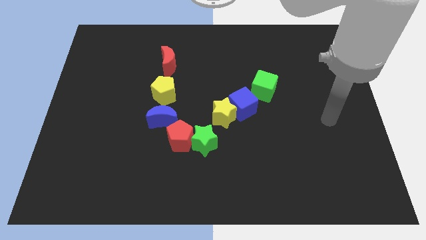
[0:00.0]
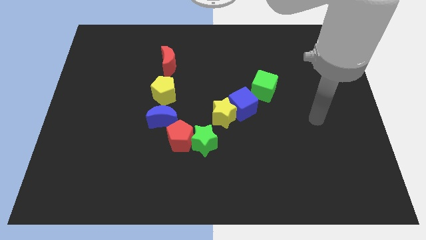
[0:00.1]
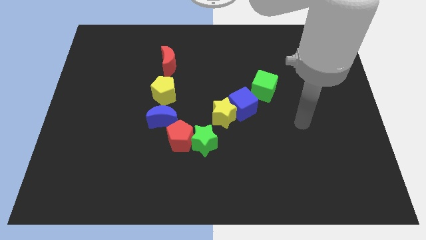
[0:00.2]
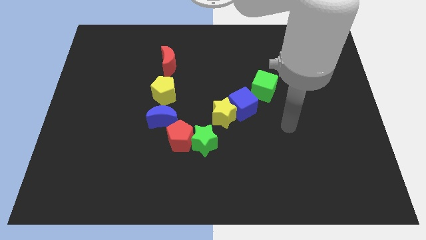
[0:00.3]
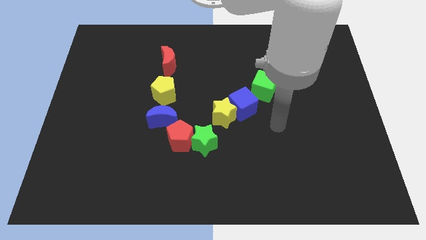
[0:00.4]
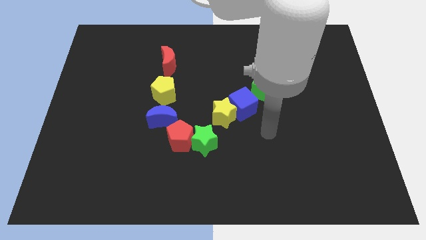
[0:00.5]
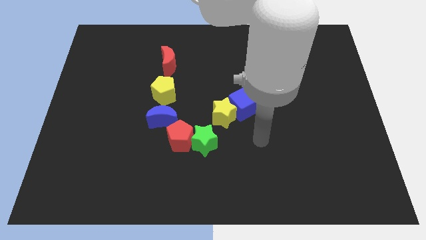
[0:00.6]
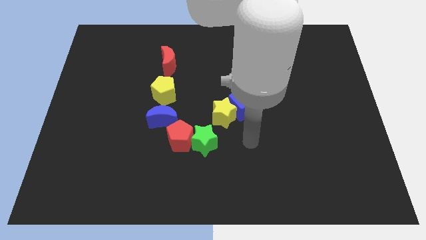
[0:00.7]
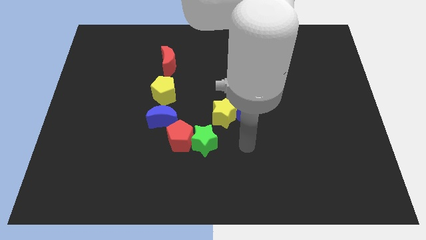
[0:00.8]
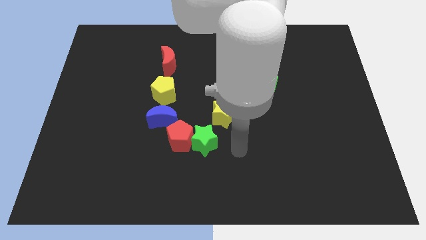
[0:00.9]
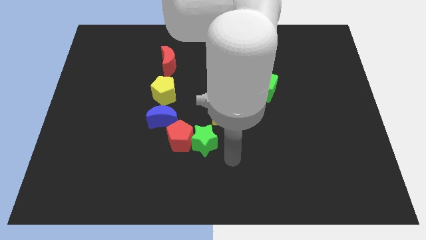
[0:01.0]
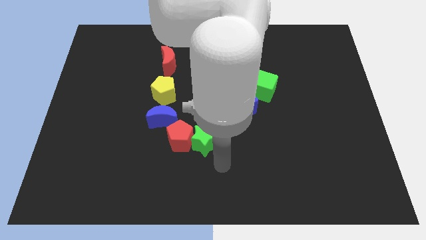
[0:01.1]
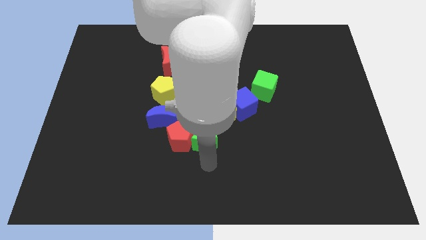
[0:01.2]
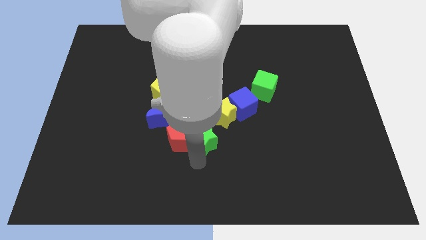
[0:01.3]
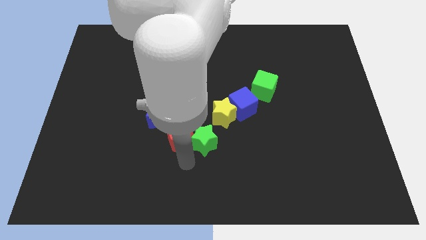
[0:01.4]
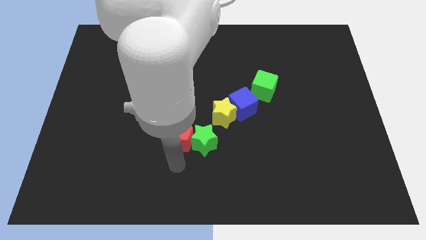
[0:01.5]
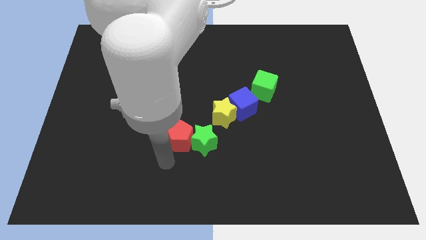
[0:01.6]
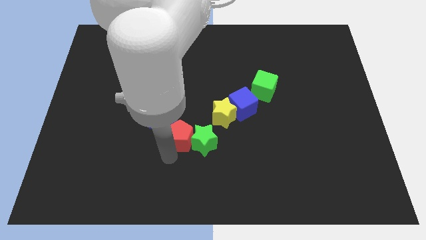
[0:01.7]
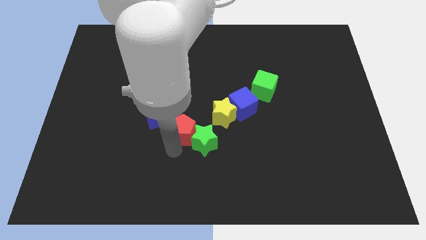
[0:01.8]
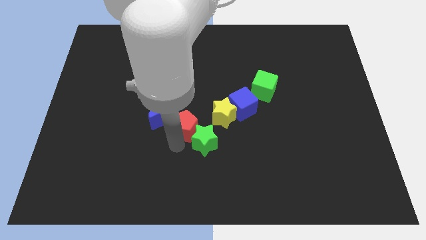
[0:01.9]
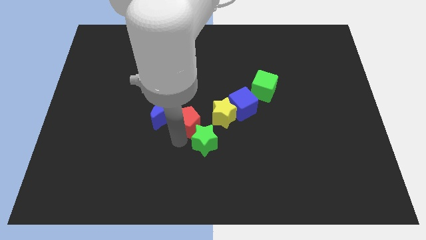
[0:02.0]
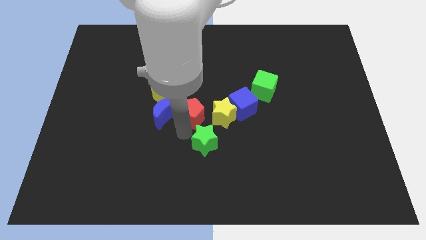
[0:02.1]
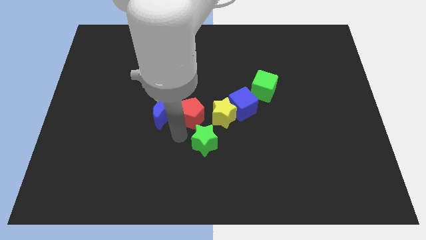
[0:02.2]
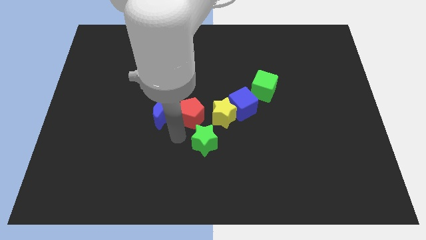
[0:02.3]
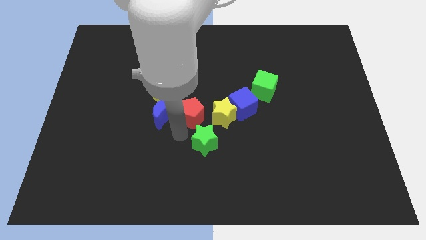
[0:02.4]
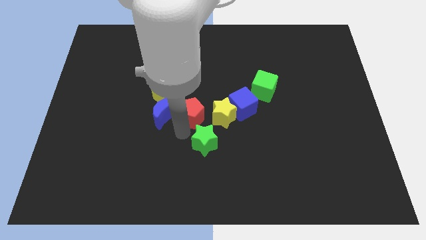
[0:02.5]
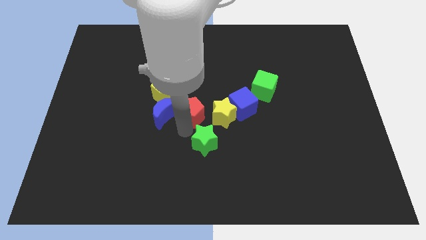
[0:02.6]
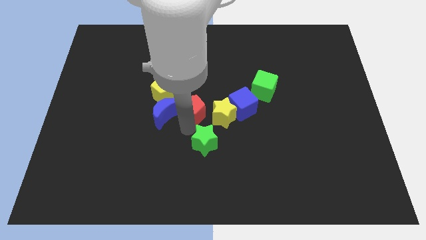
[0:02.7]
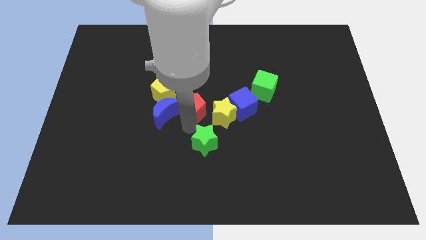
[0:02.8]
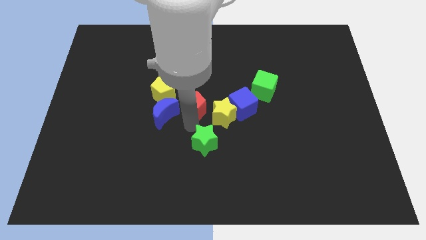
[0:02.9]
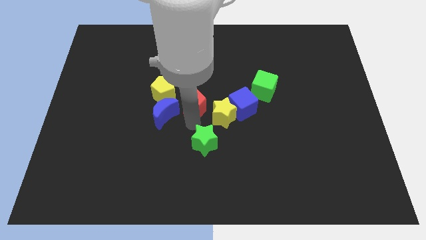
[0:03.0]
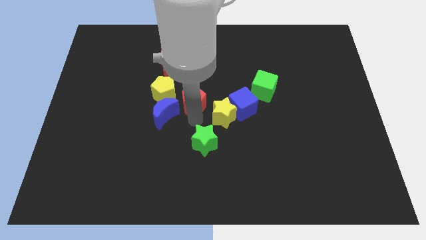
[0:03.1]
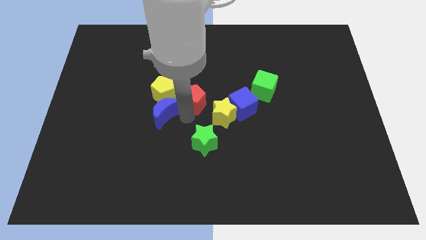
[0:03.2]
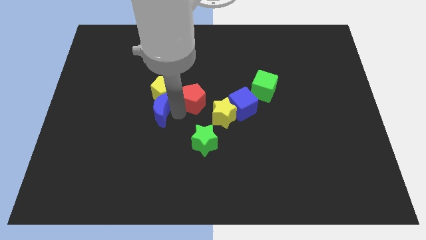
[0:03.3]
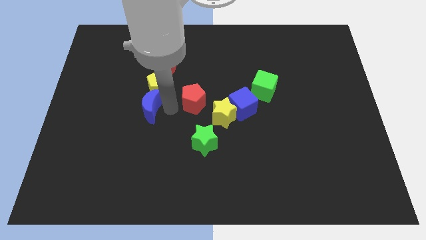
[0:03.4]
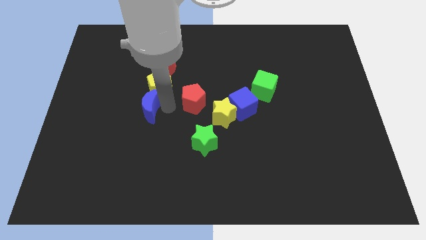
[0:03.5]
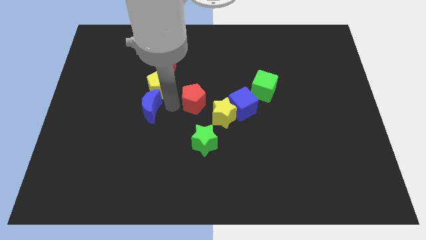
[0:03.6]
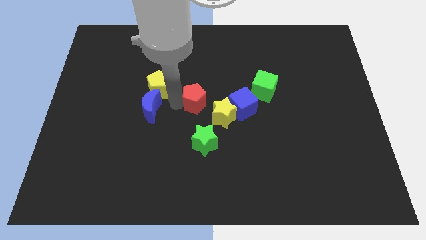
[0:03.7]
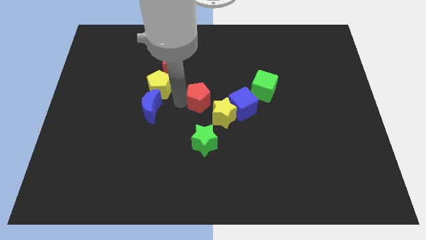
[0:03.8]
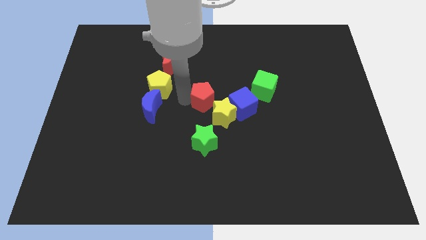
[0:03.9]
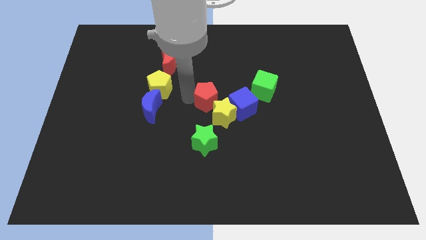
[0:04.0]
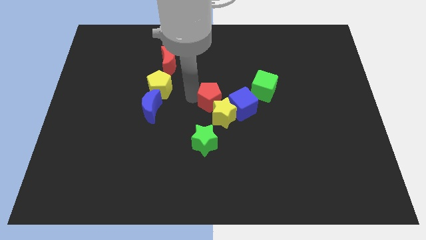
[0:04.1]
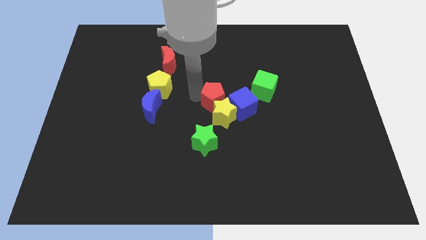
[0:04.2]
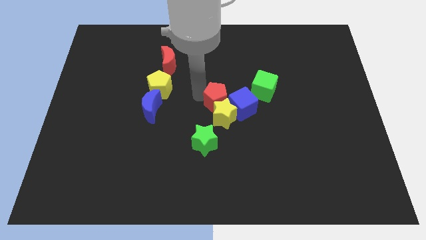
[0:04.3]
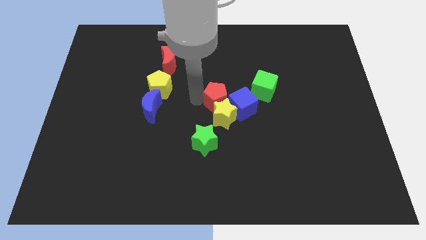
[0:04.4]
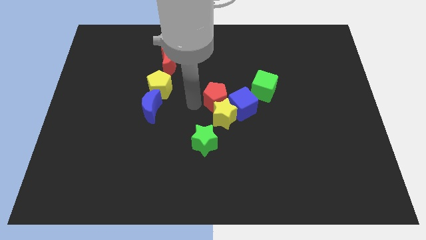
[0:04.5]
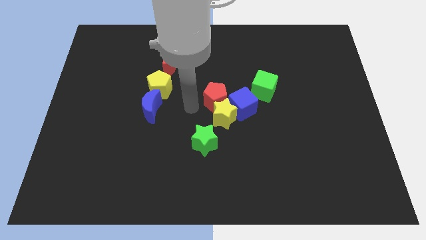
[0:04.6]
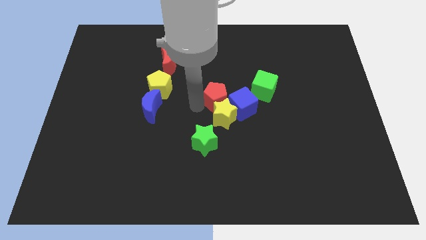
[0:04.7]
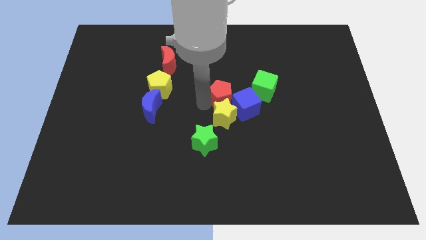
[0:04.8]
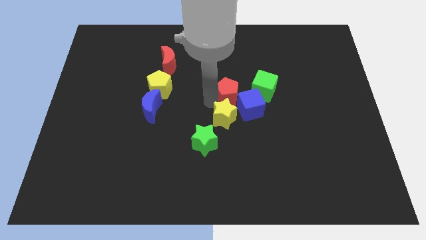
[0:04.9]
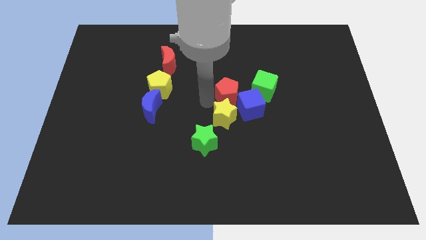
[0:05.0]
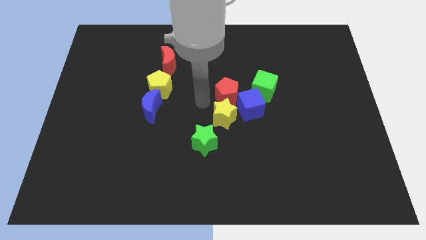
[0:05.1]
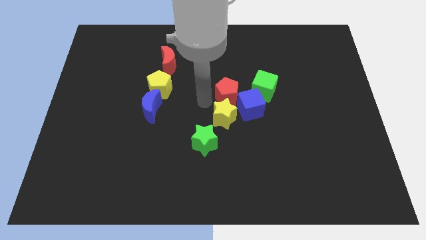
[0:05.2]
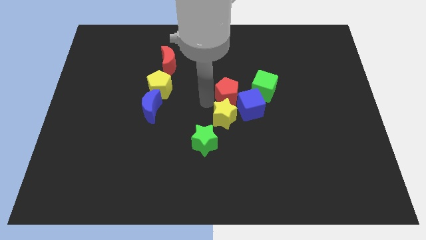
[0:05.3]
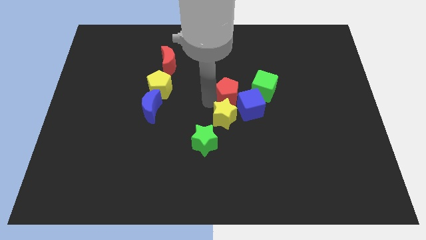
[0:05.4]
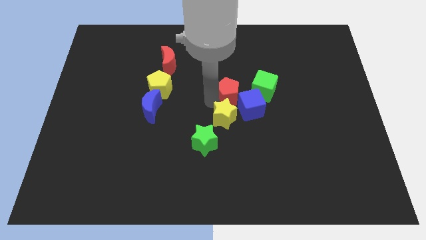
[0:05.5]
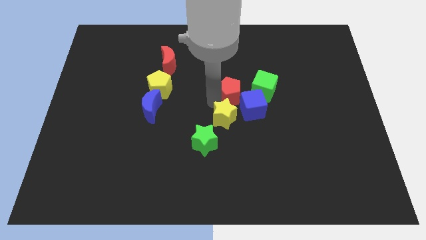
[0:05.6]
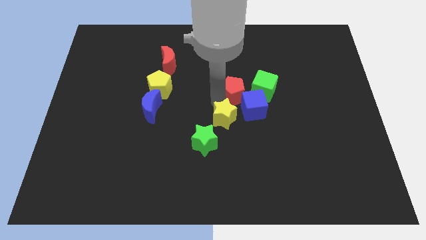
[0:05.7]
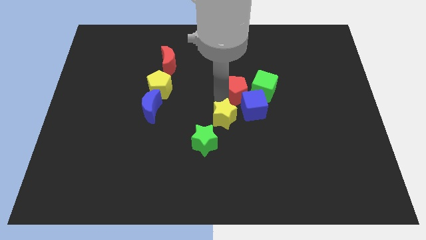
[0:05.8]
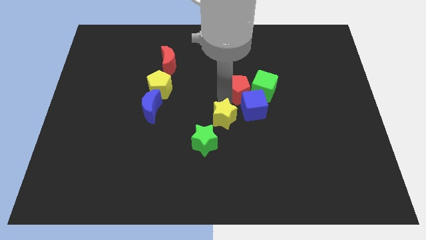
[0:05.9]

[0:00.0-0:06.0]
move the red pentagon to the green cube

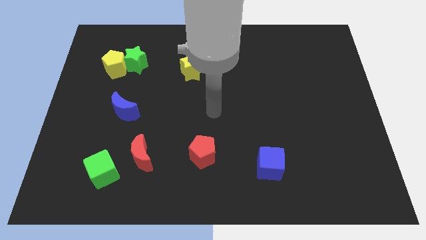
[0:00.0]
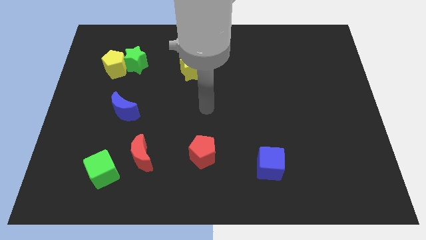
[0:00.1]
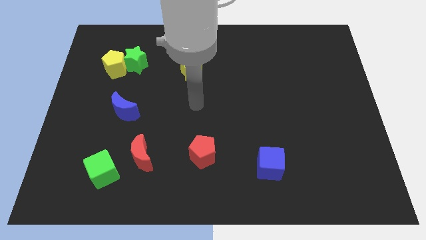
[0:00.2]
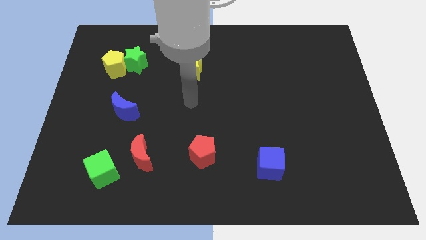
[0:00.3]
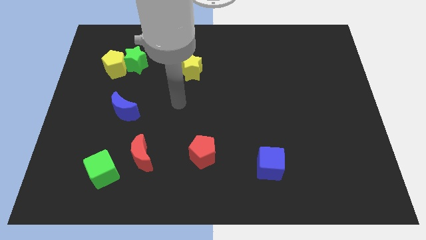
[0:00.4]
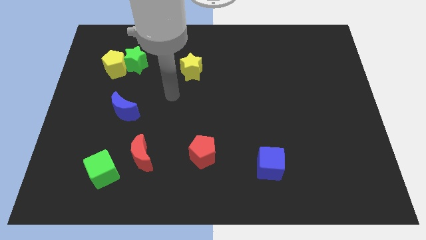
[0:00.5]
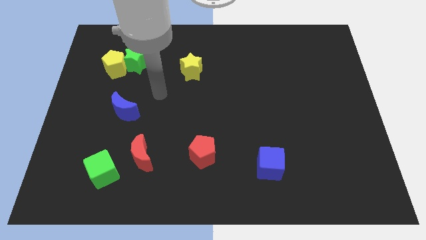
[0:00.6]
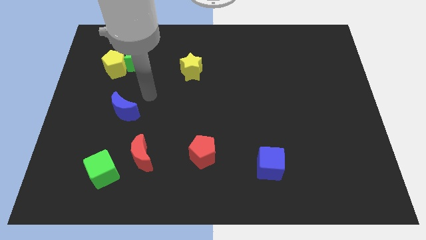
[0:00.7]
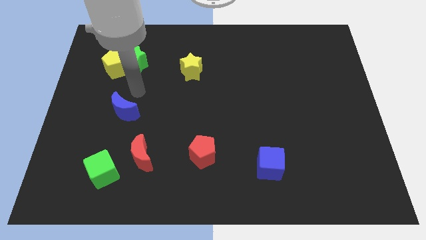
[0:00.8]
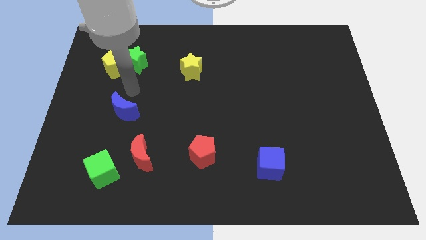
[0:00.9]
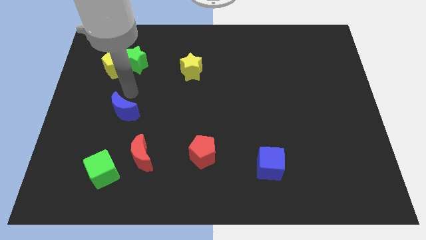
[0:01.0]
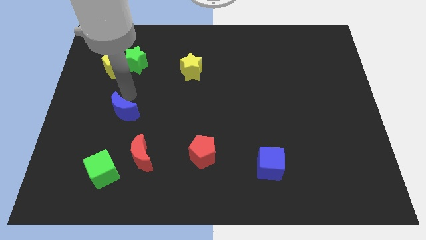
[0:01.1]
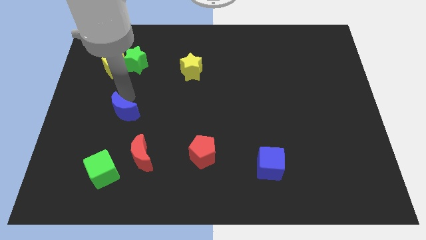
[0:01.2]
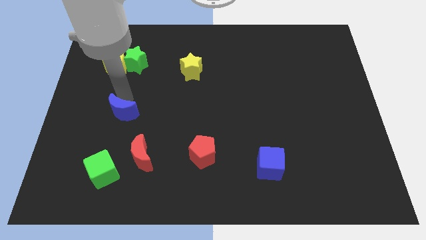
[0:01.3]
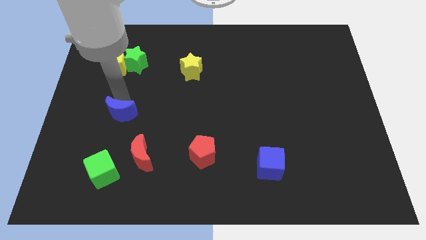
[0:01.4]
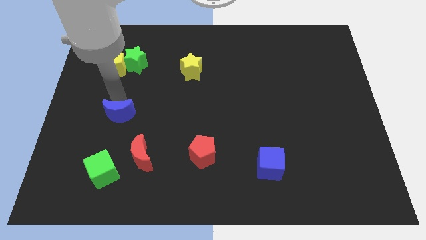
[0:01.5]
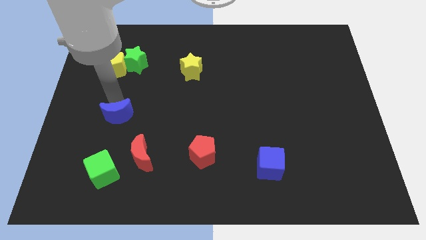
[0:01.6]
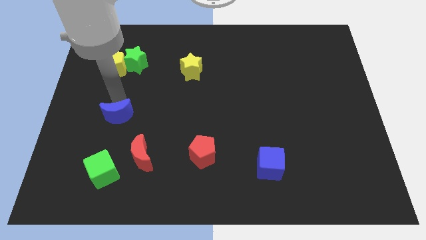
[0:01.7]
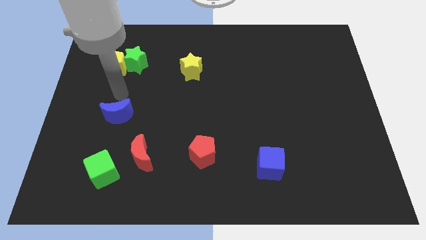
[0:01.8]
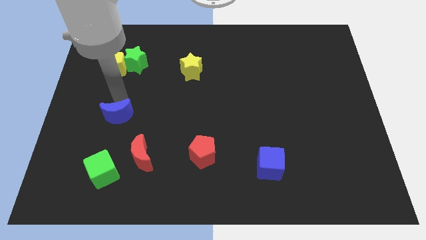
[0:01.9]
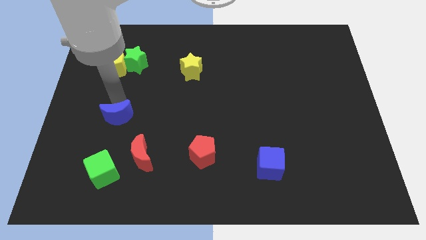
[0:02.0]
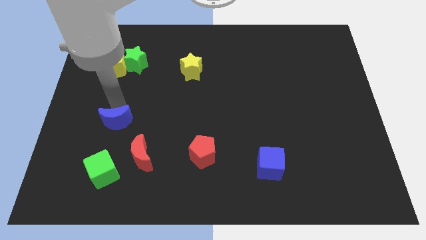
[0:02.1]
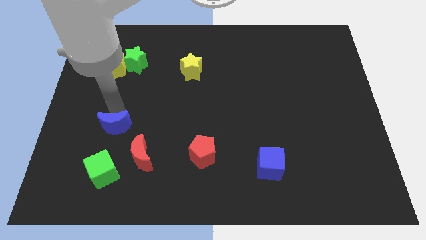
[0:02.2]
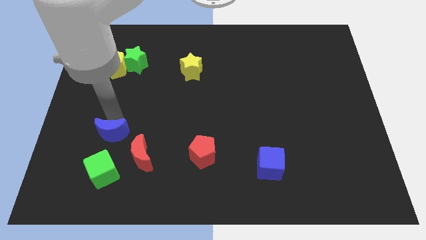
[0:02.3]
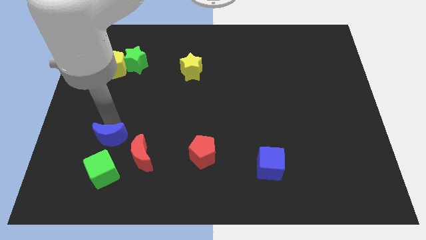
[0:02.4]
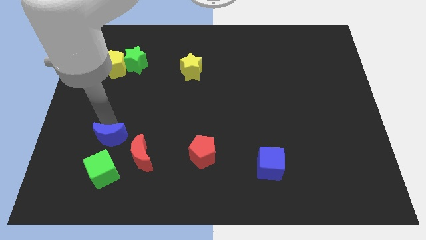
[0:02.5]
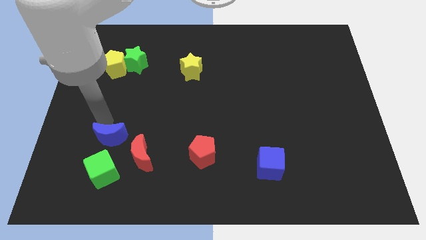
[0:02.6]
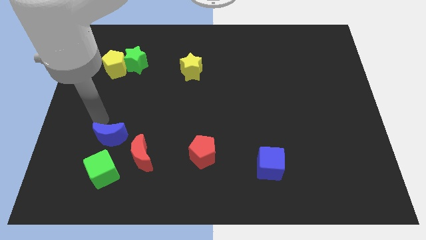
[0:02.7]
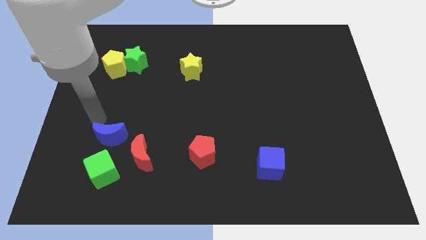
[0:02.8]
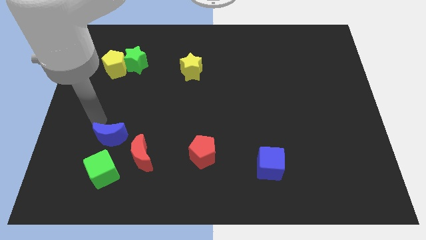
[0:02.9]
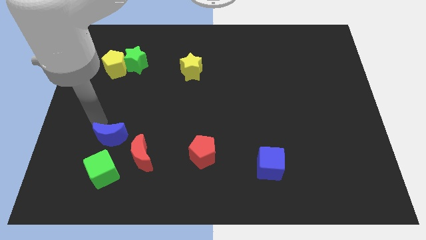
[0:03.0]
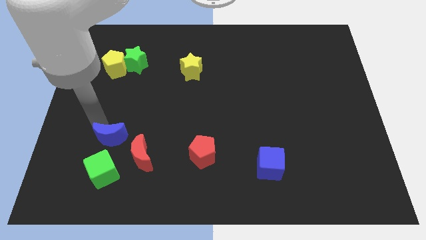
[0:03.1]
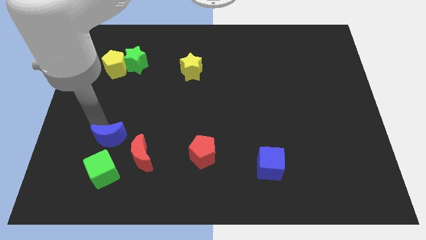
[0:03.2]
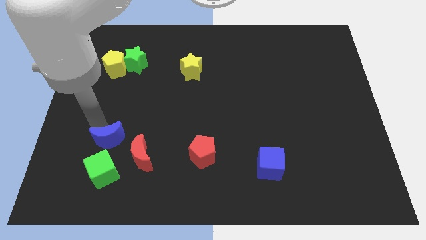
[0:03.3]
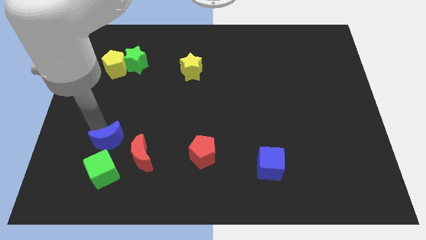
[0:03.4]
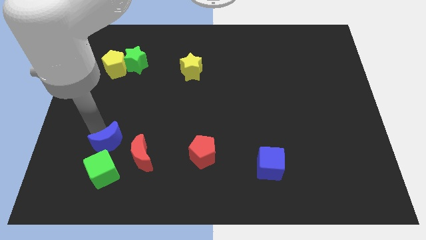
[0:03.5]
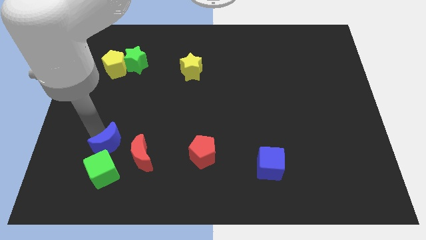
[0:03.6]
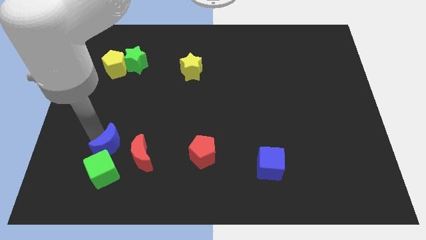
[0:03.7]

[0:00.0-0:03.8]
put the blue moon to the green cube
